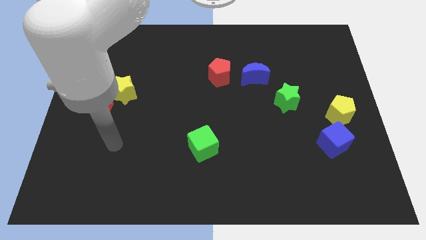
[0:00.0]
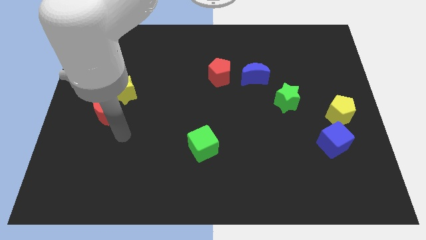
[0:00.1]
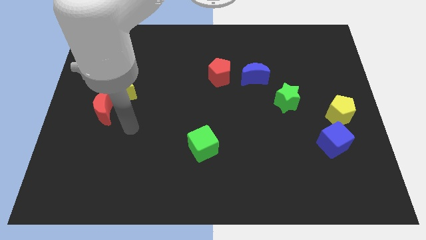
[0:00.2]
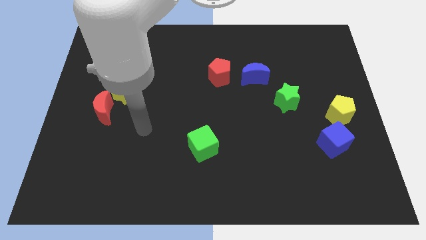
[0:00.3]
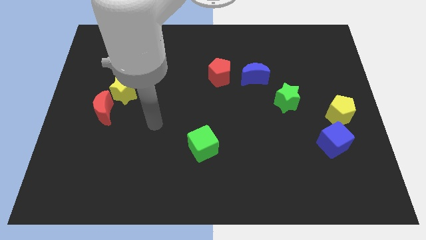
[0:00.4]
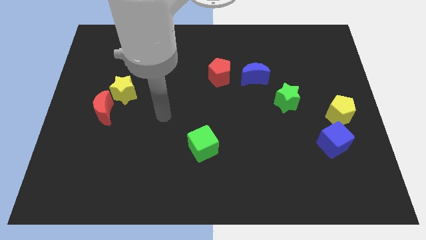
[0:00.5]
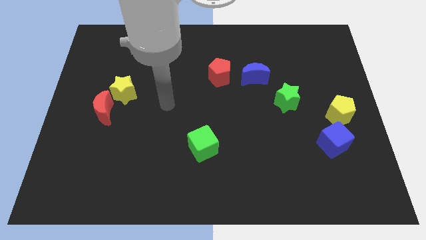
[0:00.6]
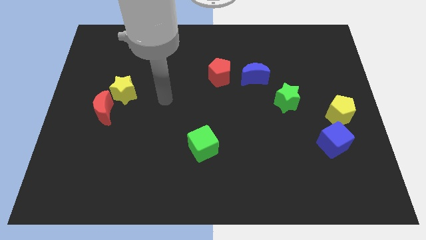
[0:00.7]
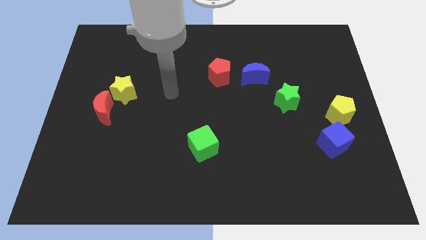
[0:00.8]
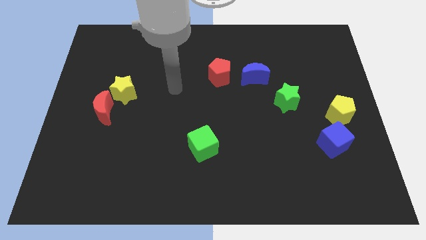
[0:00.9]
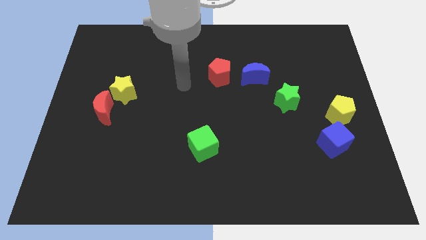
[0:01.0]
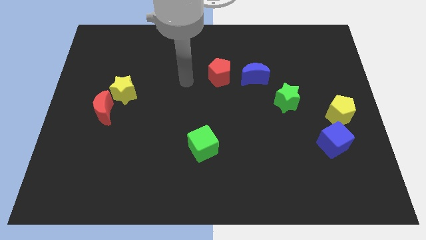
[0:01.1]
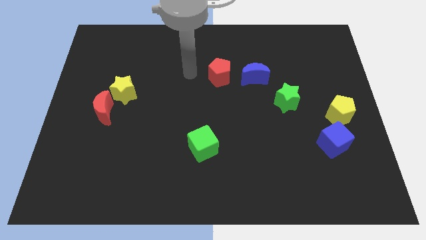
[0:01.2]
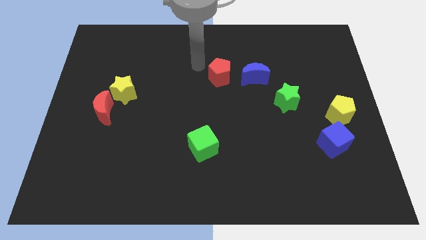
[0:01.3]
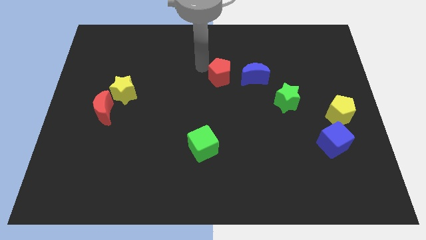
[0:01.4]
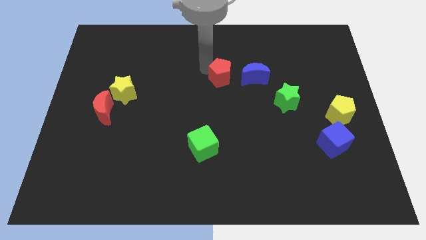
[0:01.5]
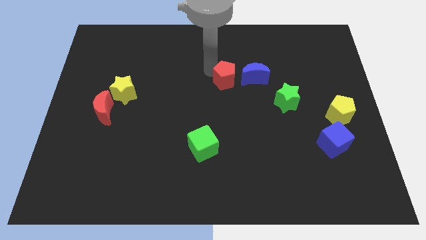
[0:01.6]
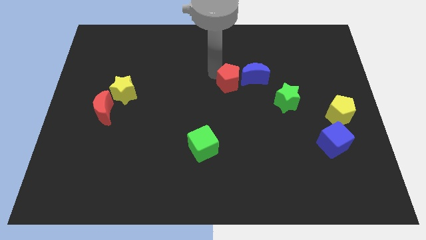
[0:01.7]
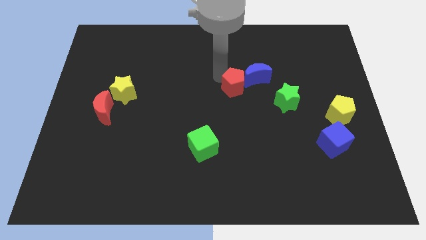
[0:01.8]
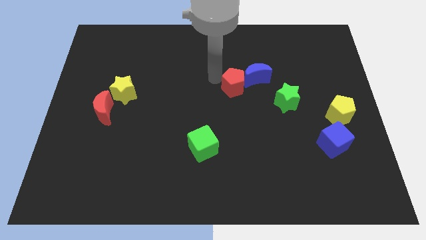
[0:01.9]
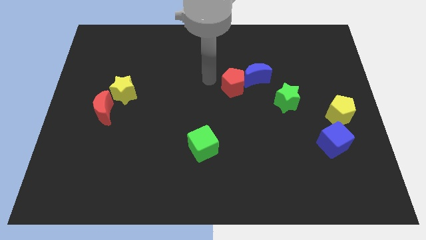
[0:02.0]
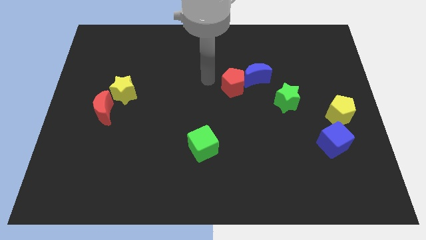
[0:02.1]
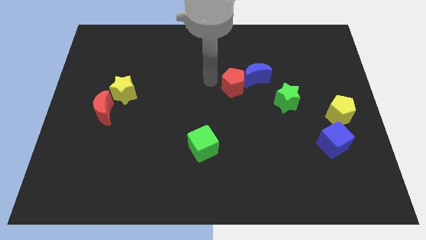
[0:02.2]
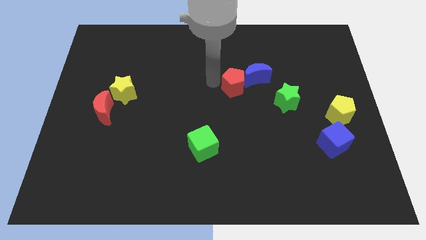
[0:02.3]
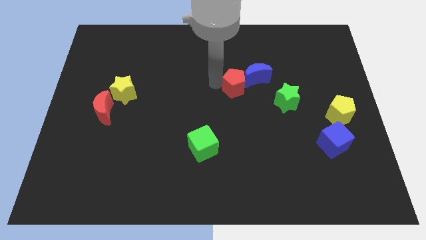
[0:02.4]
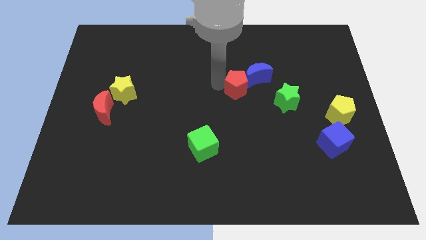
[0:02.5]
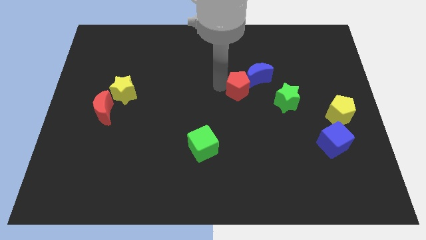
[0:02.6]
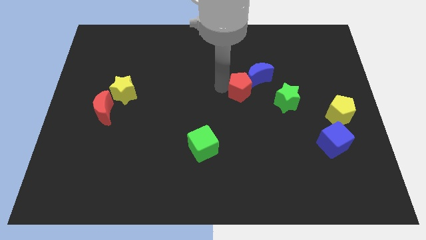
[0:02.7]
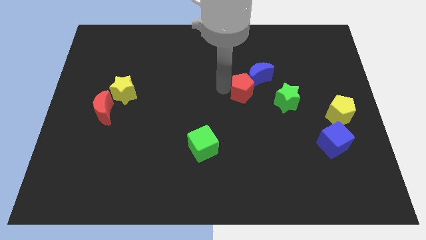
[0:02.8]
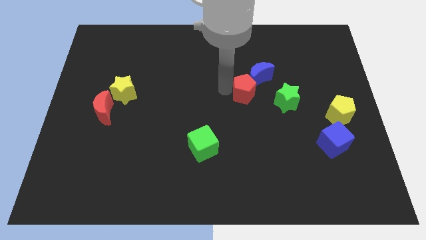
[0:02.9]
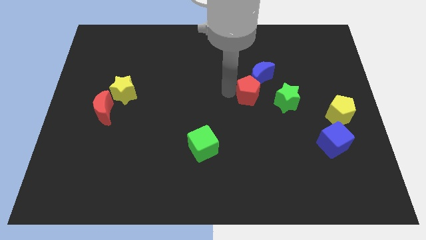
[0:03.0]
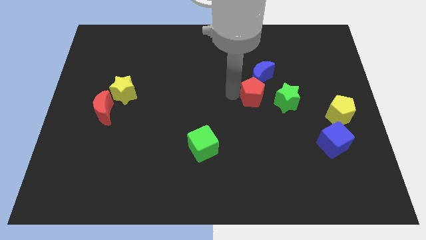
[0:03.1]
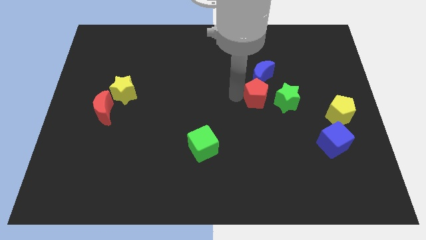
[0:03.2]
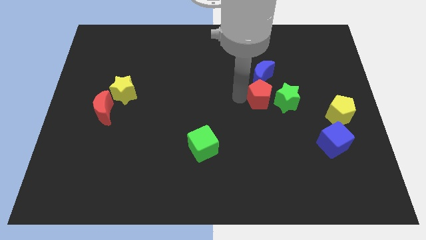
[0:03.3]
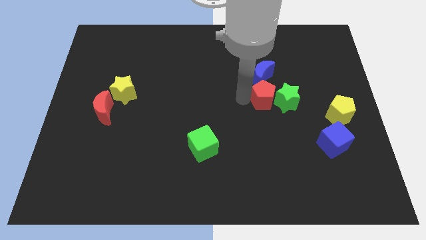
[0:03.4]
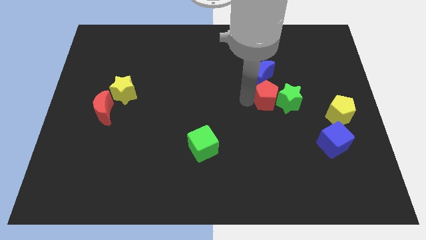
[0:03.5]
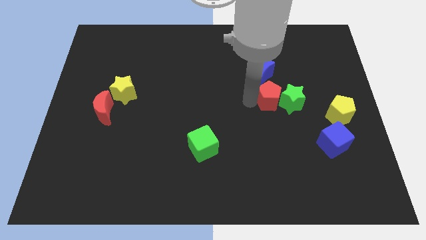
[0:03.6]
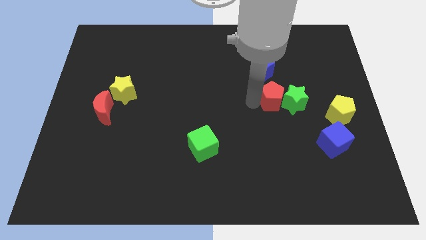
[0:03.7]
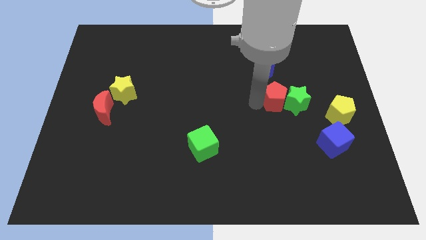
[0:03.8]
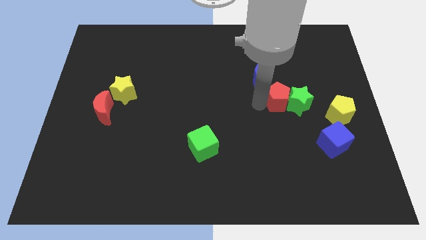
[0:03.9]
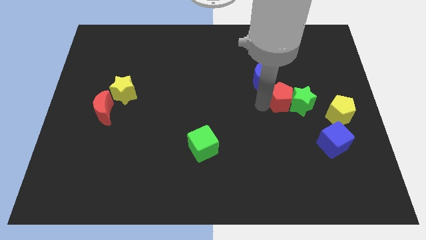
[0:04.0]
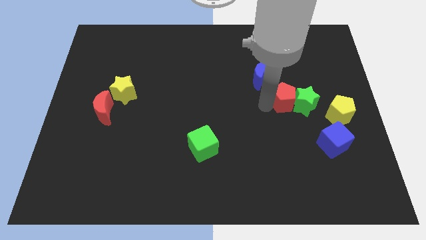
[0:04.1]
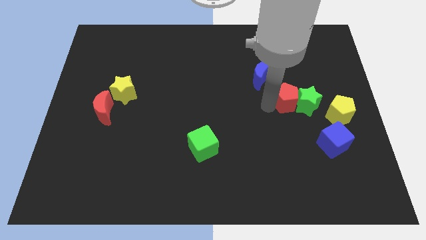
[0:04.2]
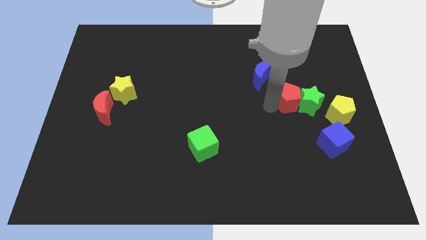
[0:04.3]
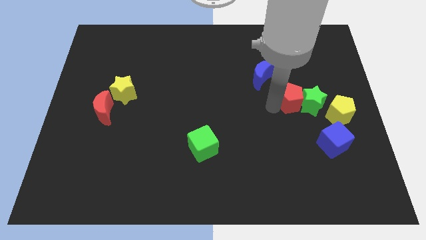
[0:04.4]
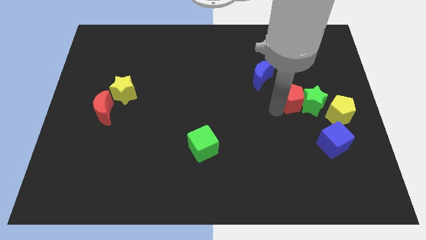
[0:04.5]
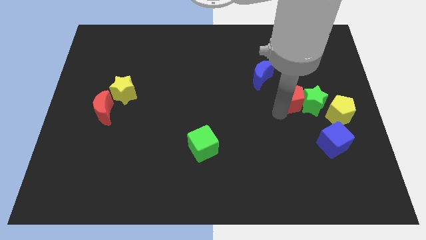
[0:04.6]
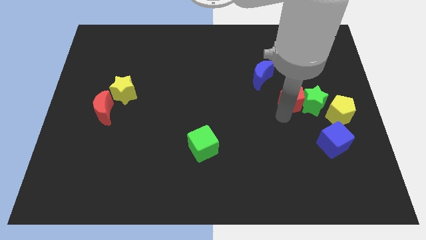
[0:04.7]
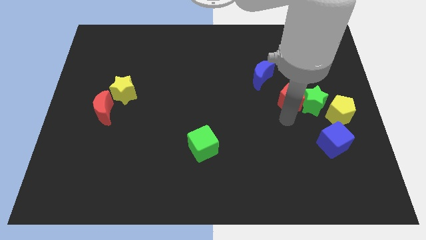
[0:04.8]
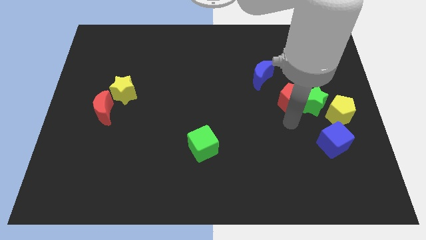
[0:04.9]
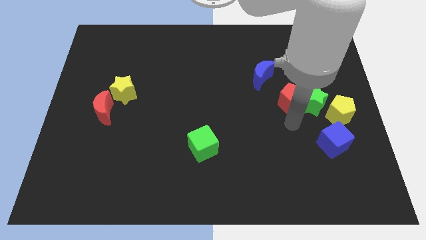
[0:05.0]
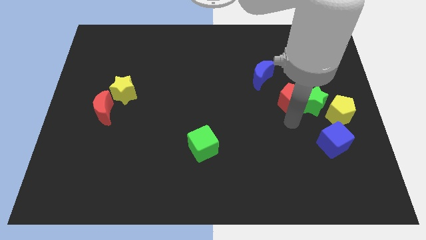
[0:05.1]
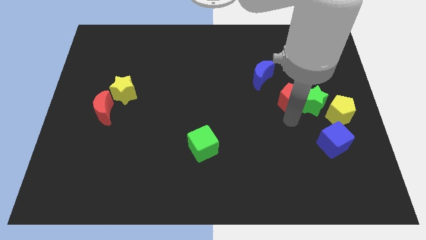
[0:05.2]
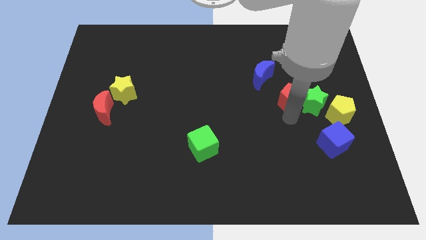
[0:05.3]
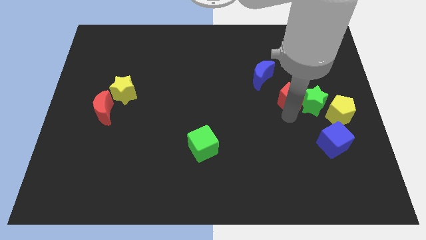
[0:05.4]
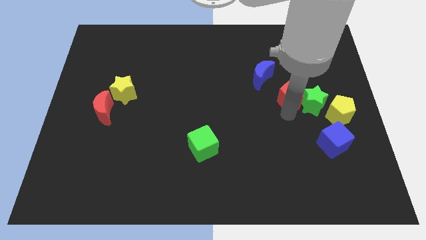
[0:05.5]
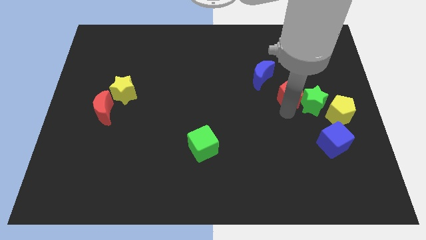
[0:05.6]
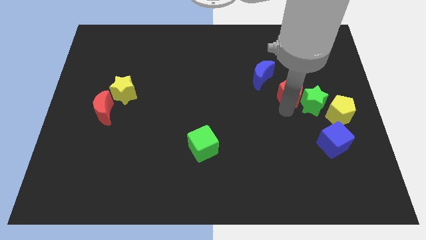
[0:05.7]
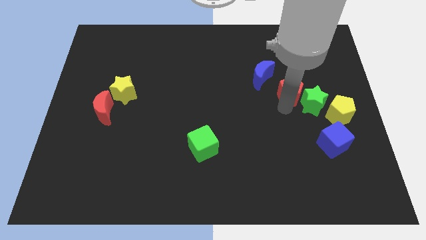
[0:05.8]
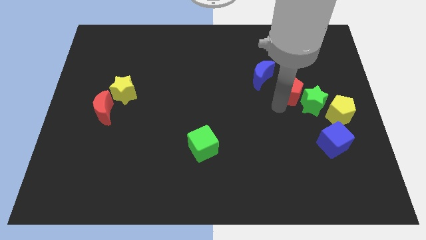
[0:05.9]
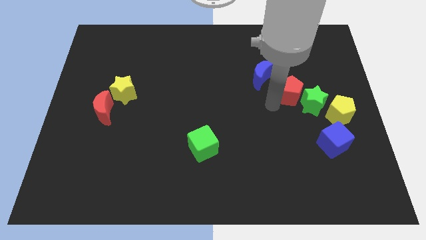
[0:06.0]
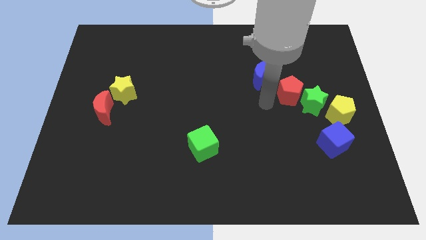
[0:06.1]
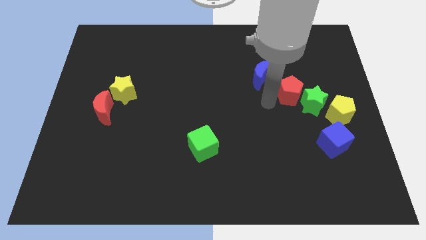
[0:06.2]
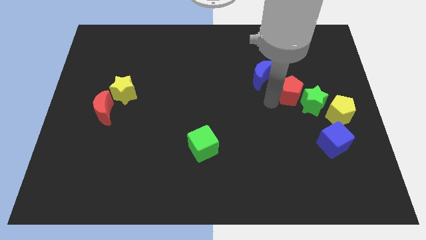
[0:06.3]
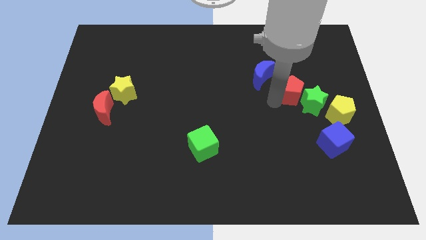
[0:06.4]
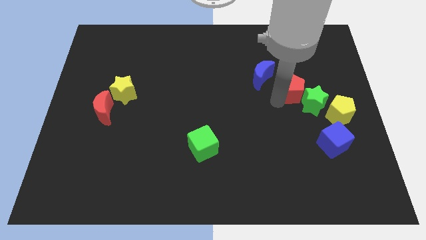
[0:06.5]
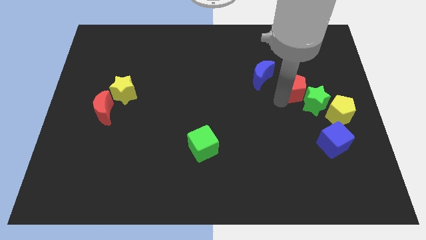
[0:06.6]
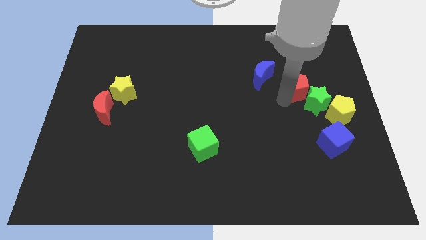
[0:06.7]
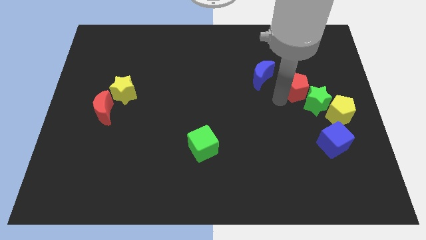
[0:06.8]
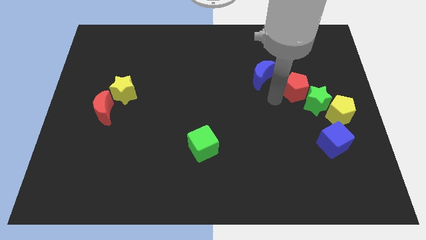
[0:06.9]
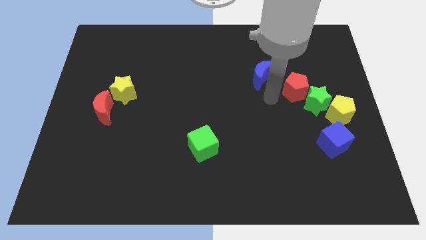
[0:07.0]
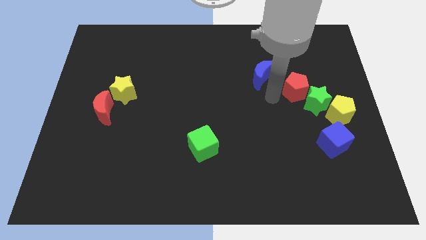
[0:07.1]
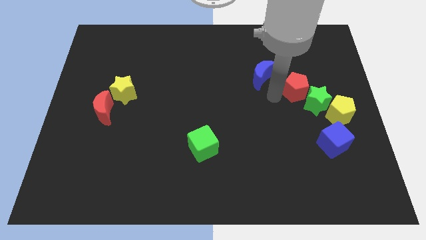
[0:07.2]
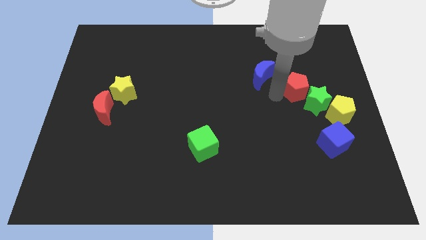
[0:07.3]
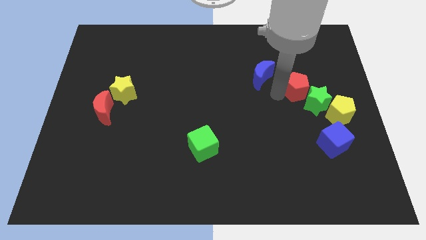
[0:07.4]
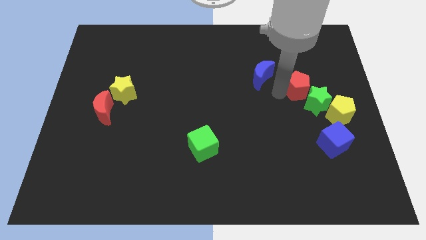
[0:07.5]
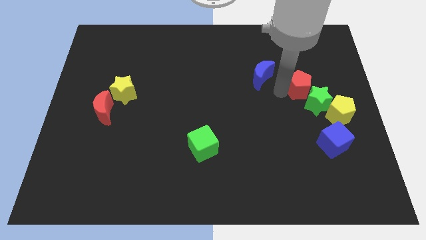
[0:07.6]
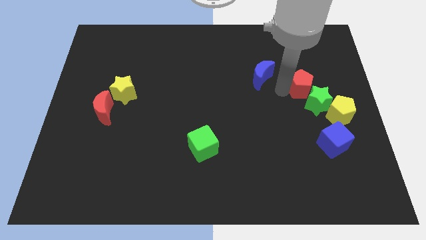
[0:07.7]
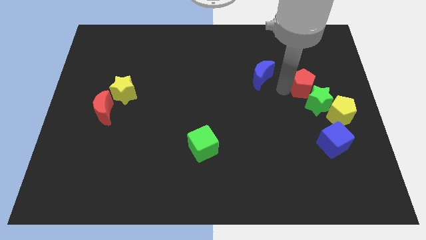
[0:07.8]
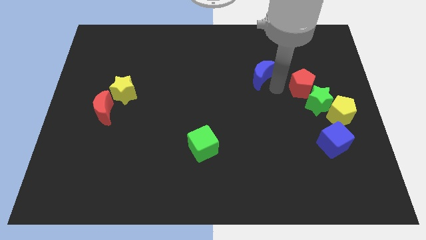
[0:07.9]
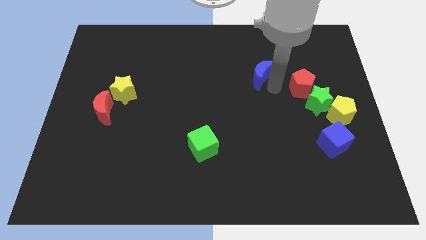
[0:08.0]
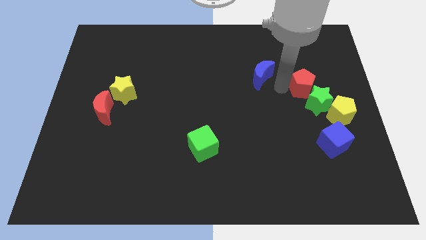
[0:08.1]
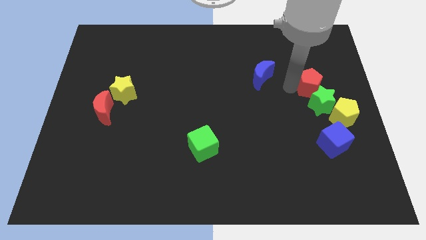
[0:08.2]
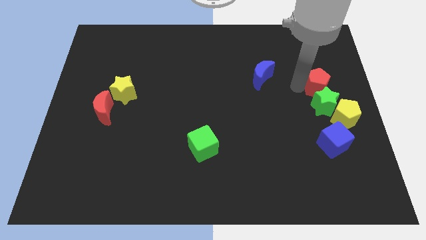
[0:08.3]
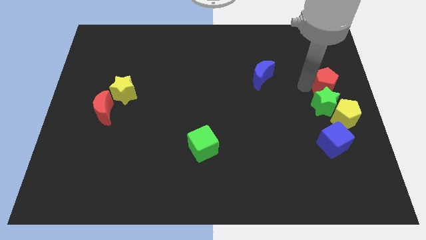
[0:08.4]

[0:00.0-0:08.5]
slide the red pentagon to the center right
